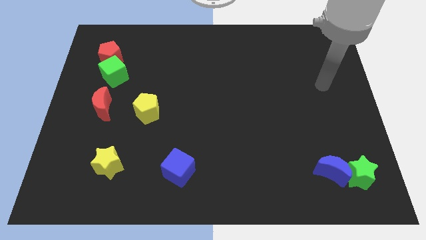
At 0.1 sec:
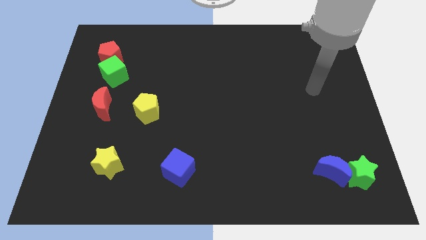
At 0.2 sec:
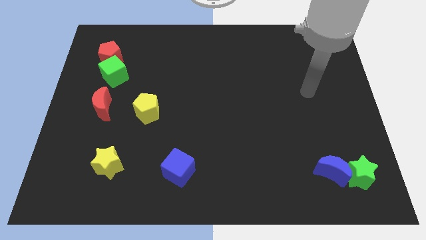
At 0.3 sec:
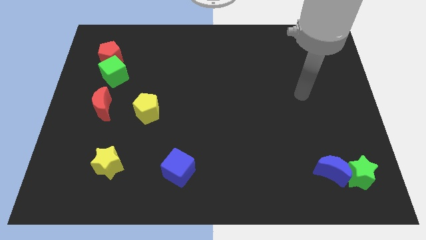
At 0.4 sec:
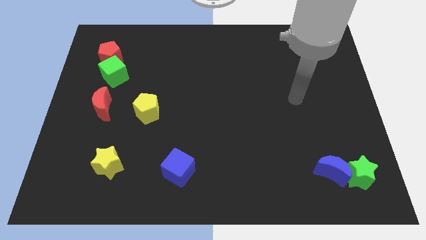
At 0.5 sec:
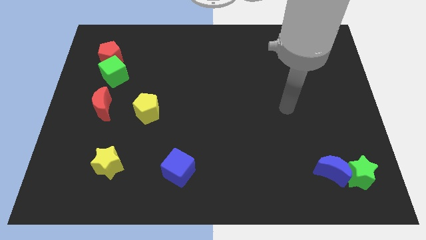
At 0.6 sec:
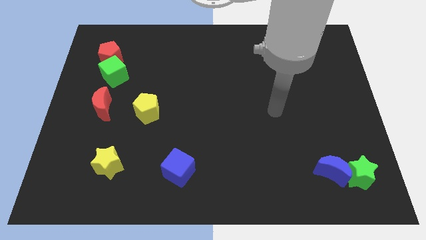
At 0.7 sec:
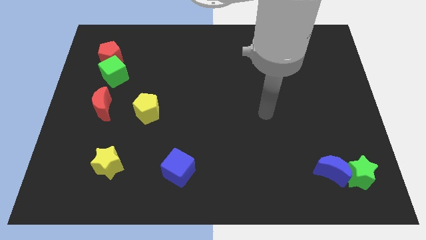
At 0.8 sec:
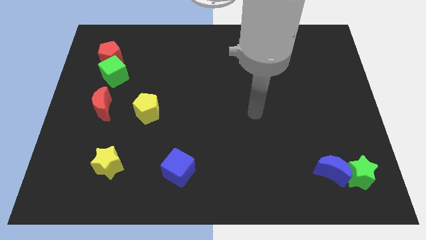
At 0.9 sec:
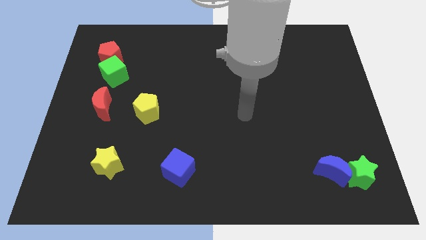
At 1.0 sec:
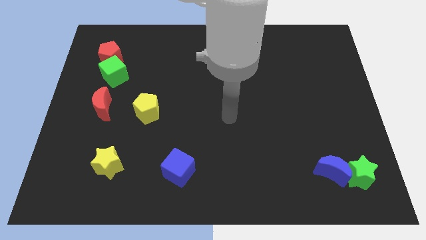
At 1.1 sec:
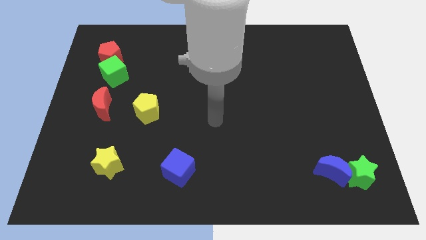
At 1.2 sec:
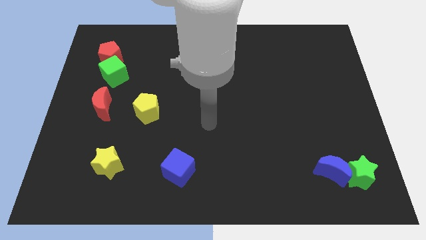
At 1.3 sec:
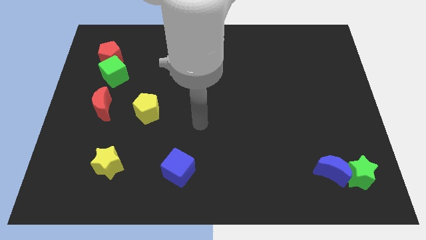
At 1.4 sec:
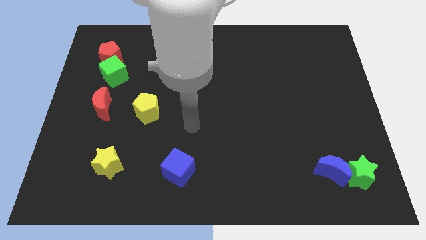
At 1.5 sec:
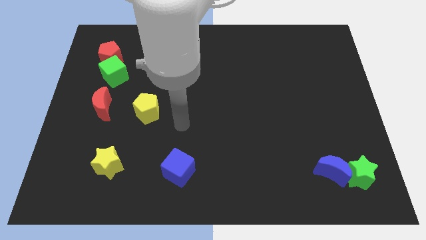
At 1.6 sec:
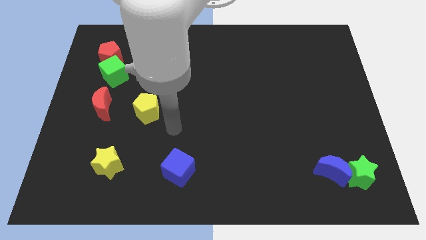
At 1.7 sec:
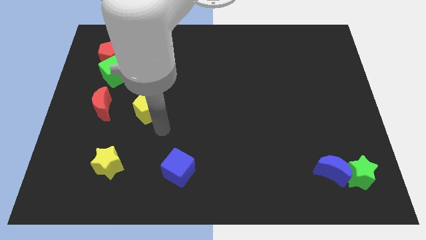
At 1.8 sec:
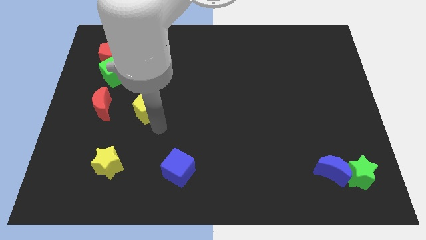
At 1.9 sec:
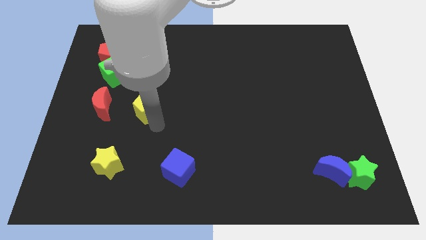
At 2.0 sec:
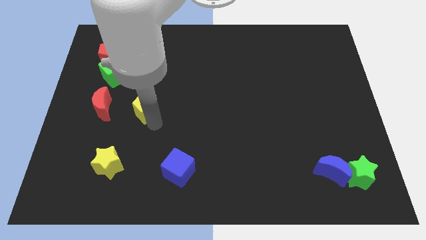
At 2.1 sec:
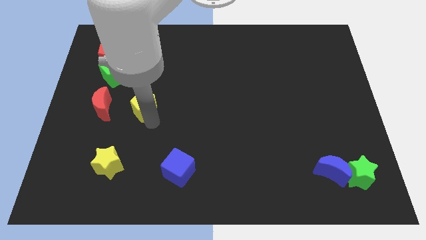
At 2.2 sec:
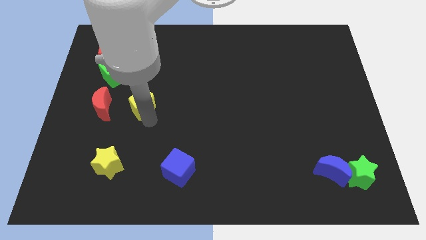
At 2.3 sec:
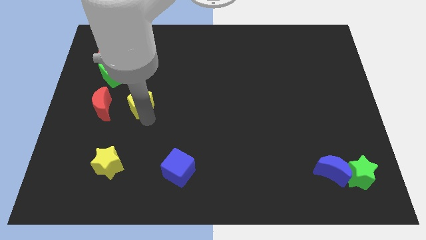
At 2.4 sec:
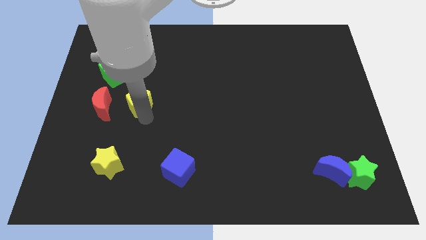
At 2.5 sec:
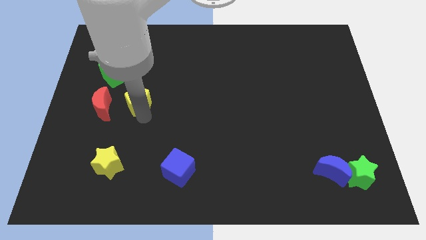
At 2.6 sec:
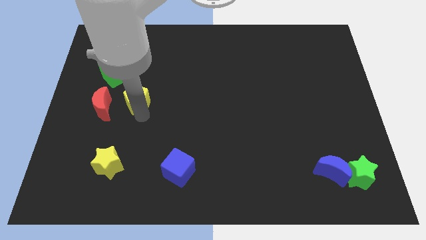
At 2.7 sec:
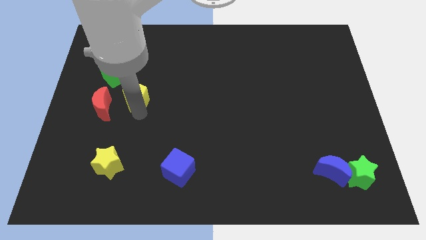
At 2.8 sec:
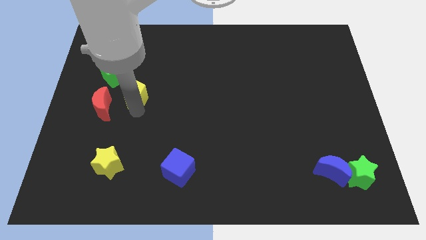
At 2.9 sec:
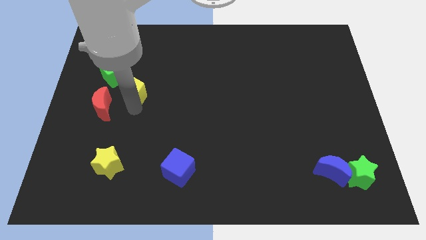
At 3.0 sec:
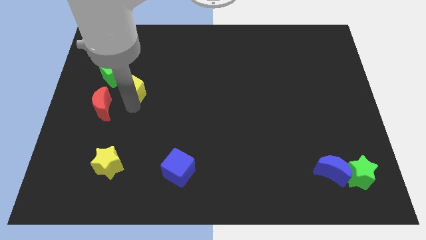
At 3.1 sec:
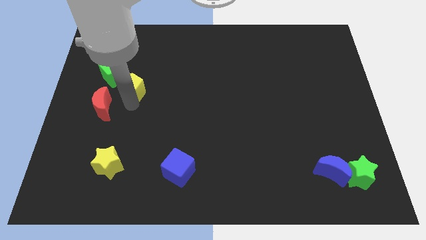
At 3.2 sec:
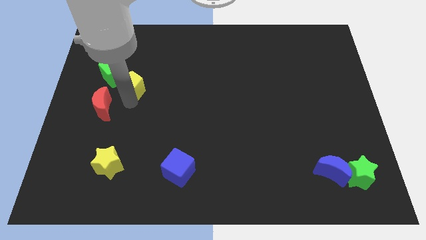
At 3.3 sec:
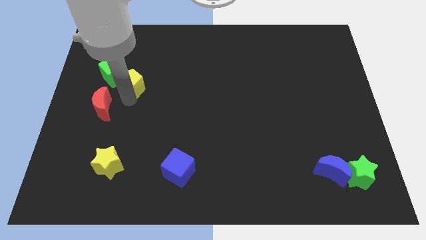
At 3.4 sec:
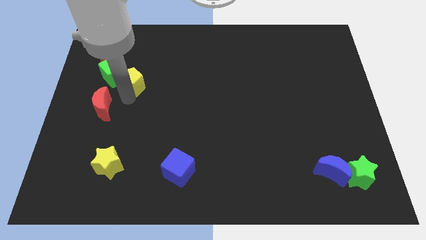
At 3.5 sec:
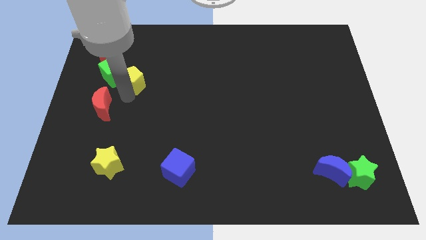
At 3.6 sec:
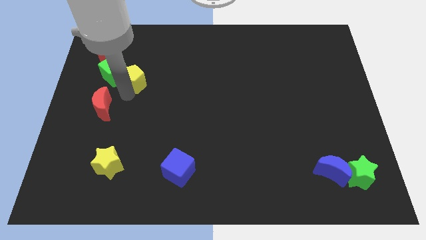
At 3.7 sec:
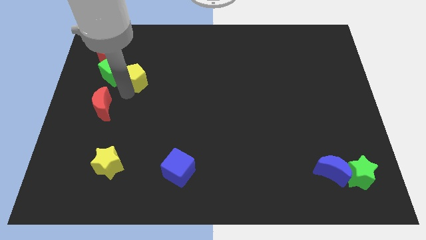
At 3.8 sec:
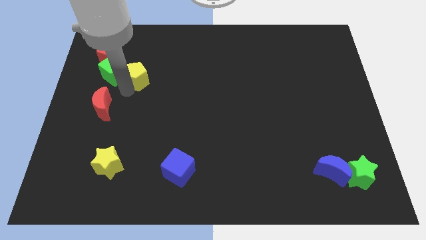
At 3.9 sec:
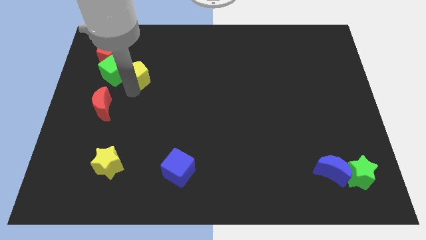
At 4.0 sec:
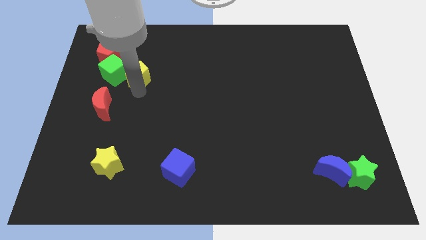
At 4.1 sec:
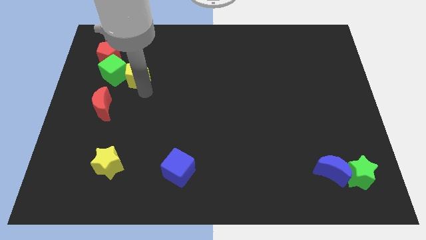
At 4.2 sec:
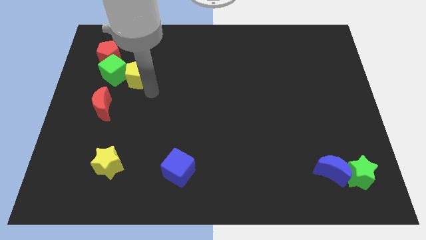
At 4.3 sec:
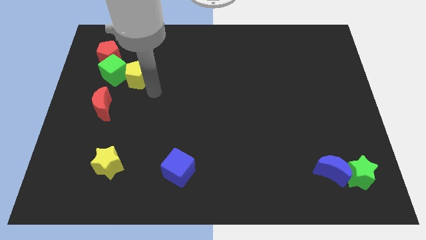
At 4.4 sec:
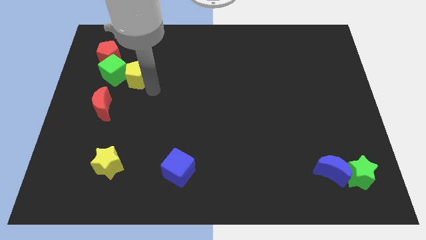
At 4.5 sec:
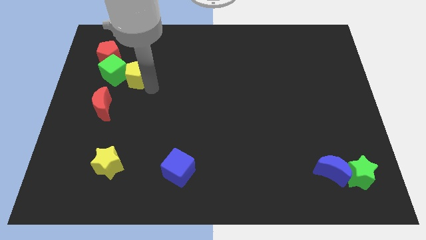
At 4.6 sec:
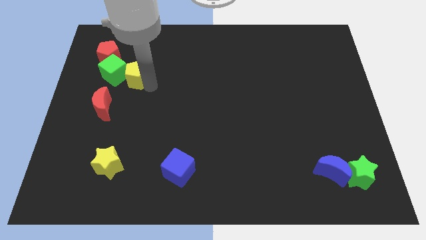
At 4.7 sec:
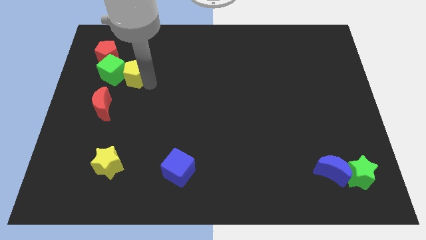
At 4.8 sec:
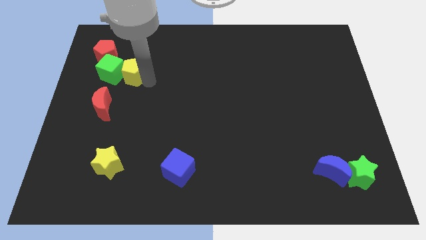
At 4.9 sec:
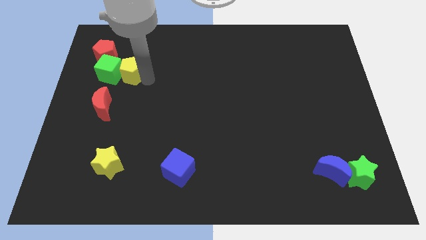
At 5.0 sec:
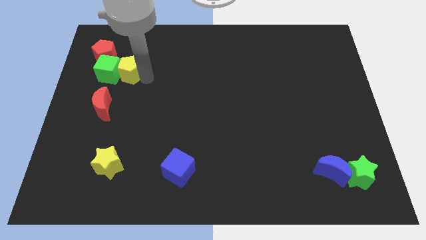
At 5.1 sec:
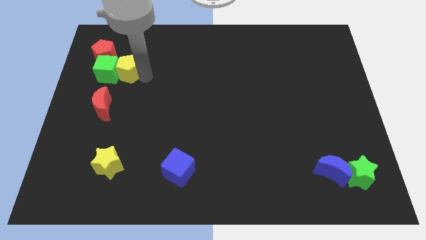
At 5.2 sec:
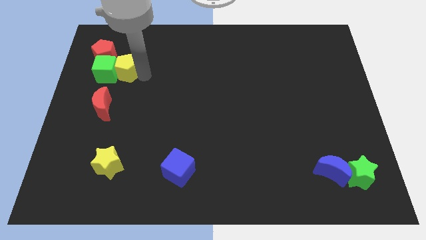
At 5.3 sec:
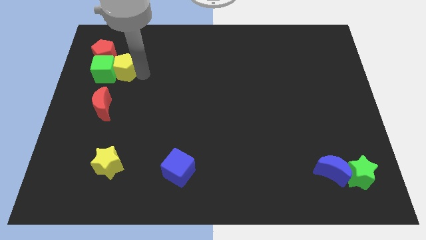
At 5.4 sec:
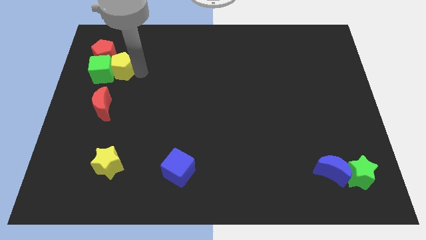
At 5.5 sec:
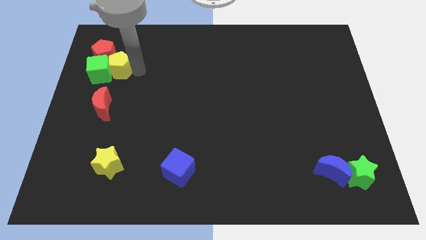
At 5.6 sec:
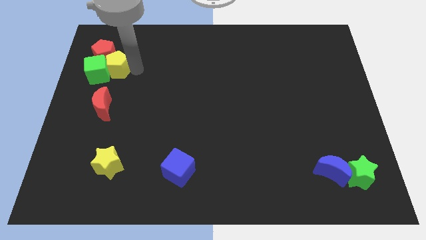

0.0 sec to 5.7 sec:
put the yellow pentagon next to the red pentagon

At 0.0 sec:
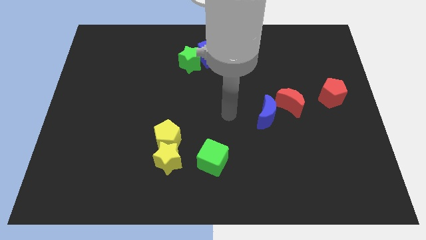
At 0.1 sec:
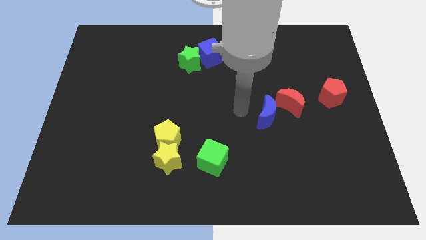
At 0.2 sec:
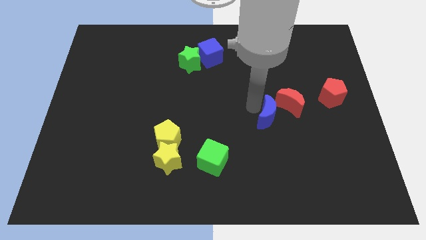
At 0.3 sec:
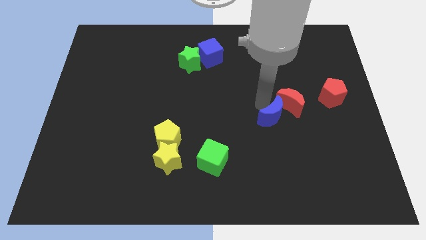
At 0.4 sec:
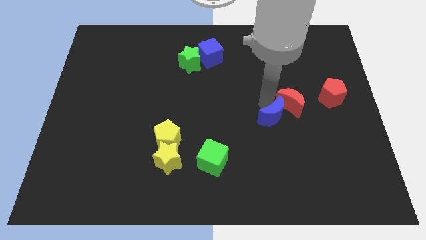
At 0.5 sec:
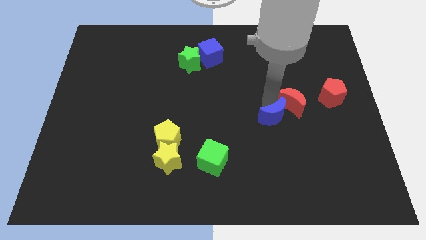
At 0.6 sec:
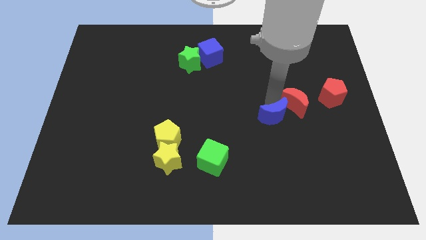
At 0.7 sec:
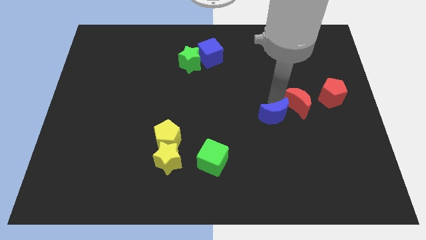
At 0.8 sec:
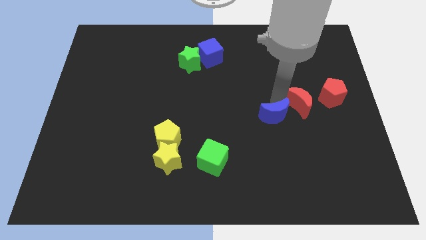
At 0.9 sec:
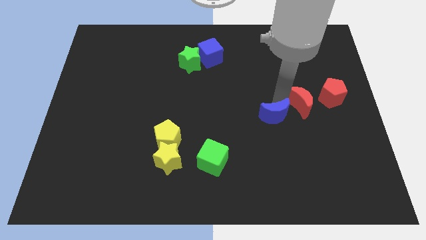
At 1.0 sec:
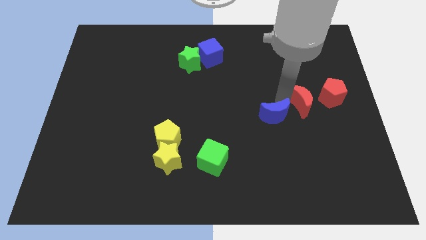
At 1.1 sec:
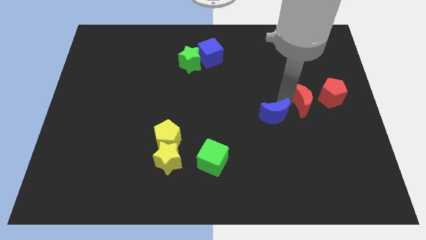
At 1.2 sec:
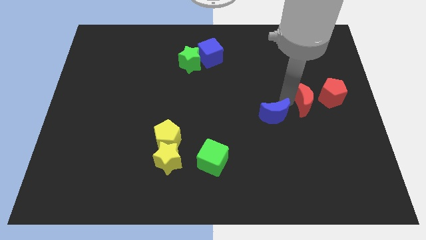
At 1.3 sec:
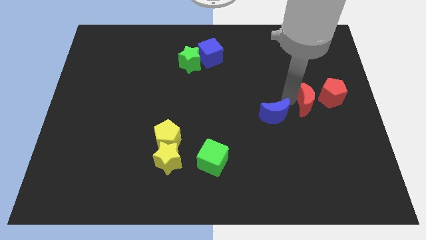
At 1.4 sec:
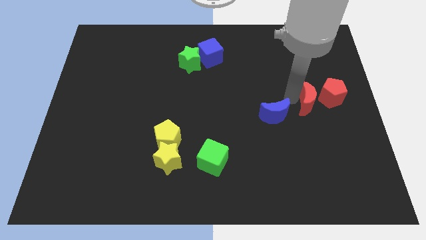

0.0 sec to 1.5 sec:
move the red moon towards the red pentagon
